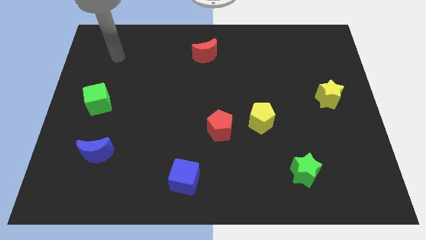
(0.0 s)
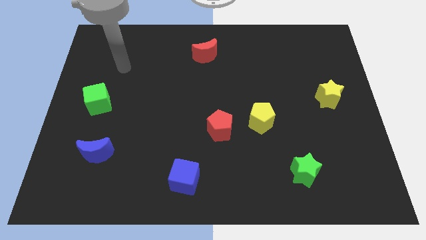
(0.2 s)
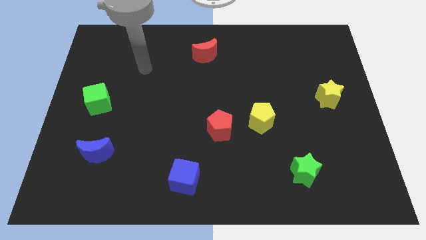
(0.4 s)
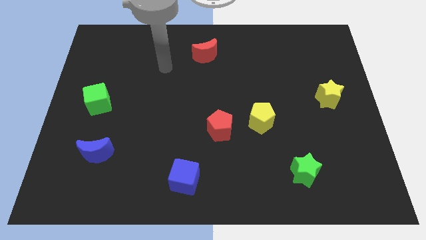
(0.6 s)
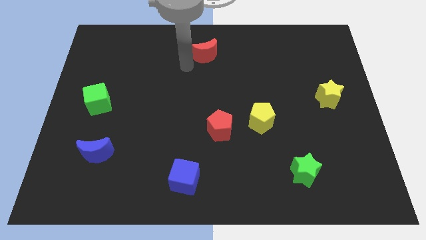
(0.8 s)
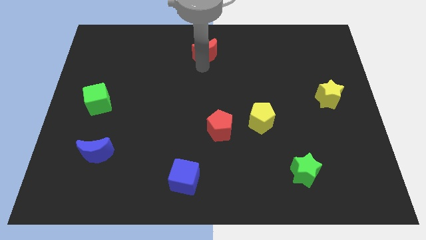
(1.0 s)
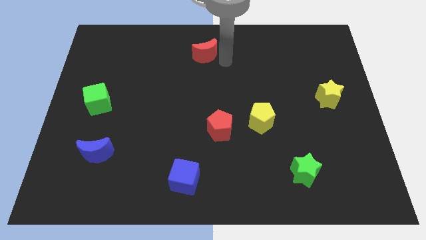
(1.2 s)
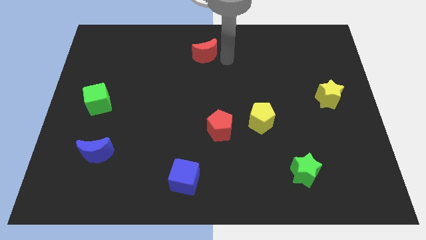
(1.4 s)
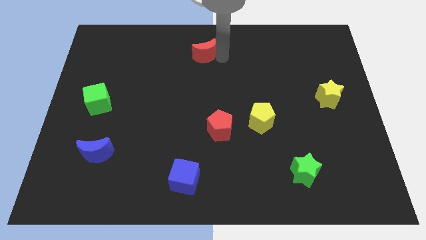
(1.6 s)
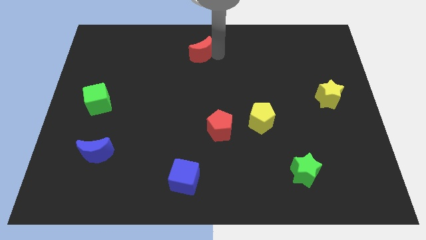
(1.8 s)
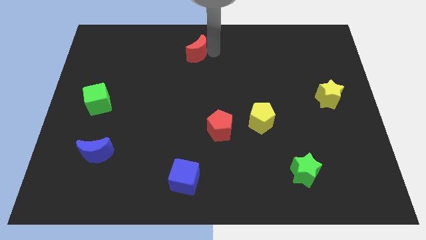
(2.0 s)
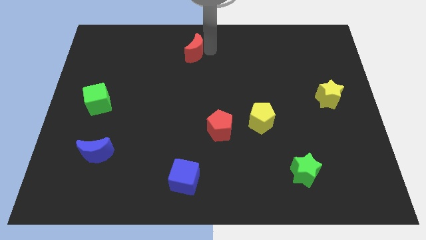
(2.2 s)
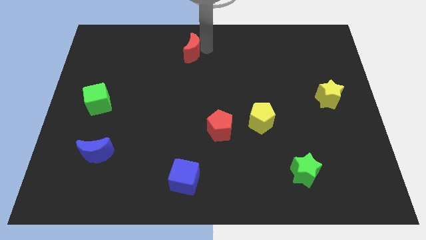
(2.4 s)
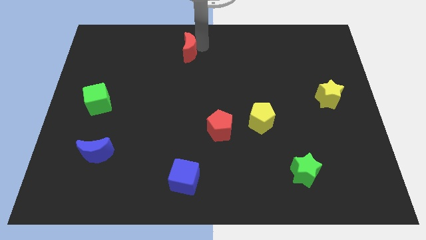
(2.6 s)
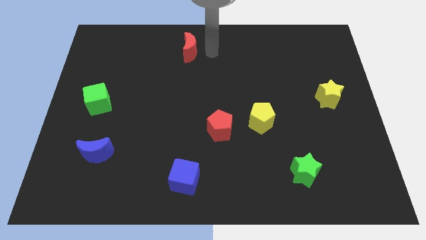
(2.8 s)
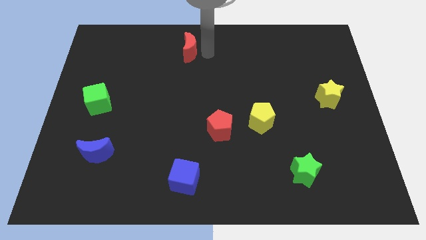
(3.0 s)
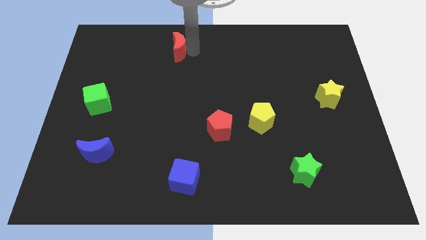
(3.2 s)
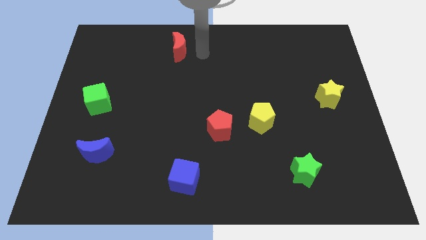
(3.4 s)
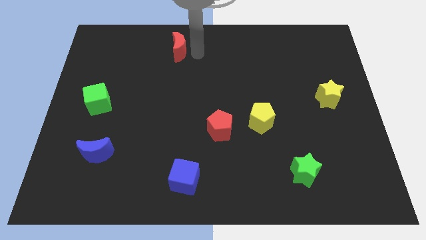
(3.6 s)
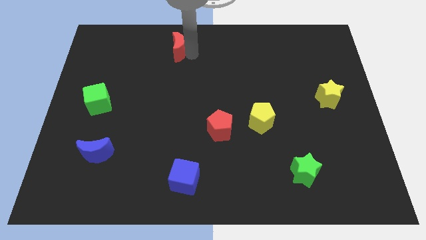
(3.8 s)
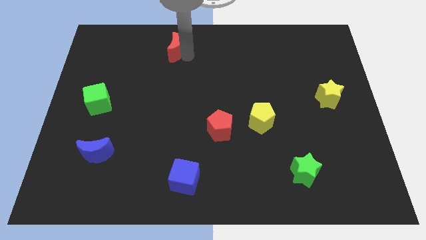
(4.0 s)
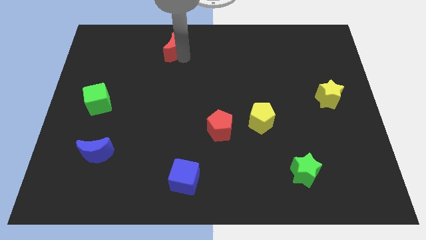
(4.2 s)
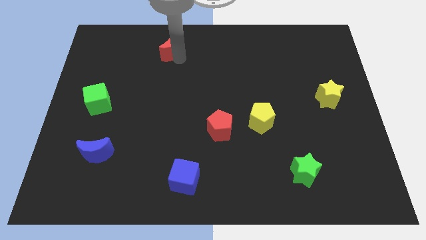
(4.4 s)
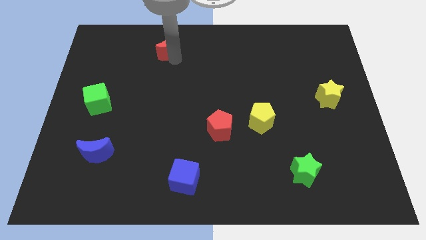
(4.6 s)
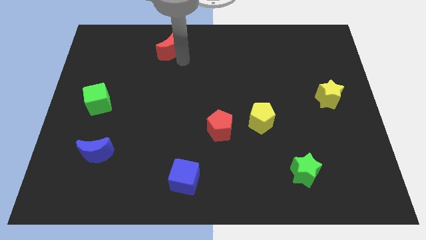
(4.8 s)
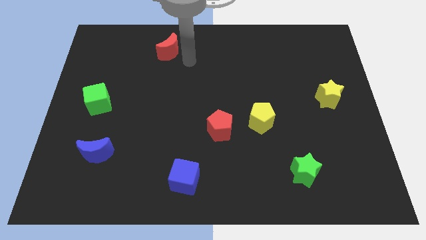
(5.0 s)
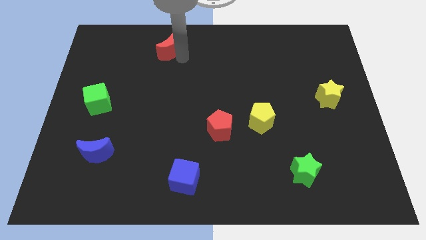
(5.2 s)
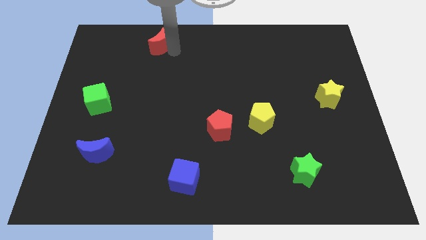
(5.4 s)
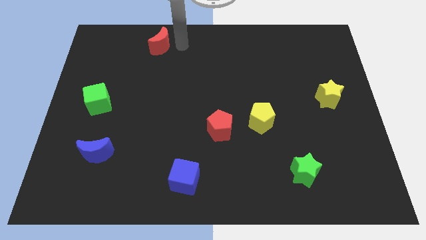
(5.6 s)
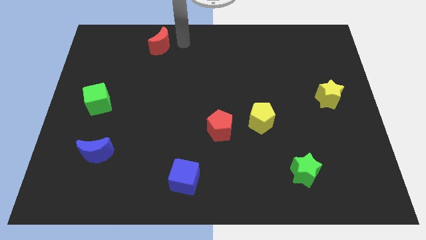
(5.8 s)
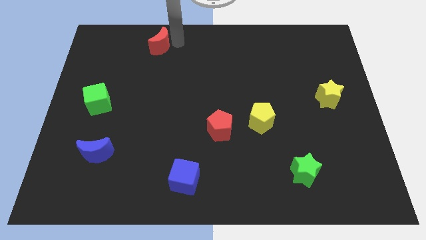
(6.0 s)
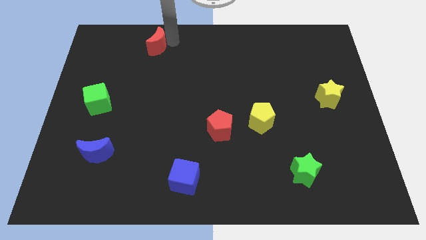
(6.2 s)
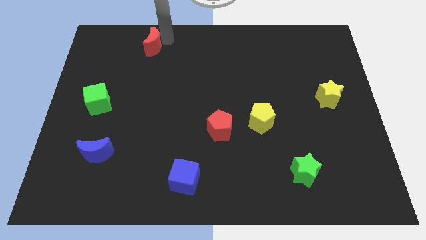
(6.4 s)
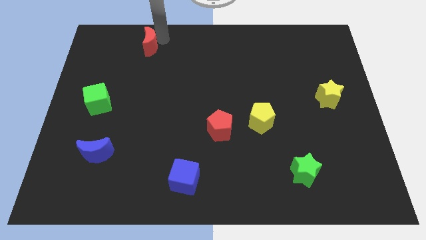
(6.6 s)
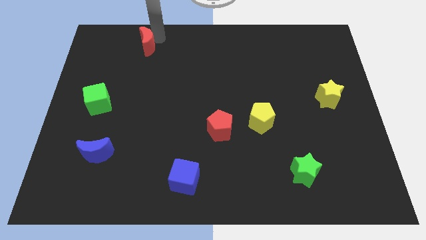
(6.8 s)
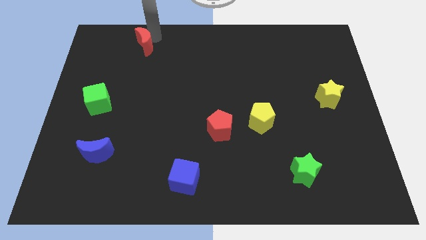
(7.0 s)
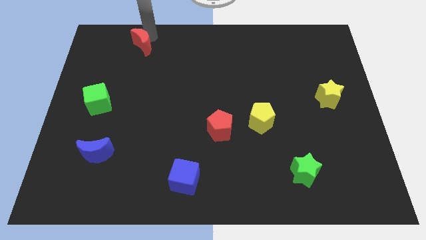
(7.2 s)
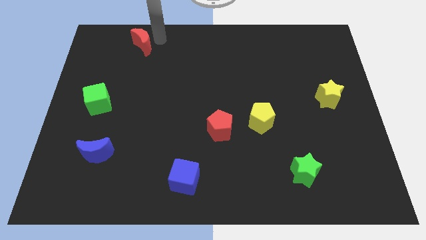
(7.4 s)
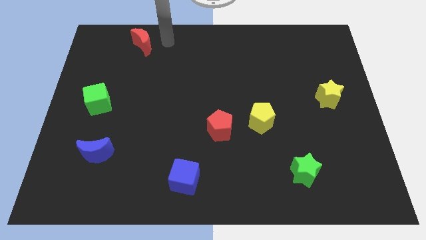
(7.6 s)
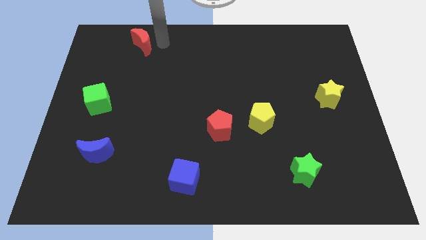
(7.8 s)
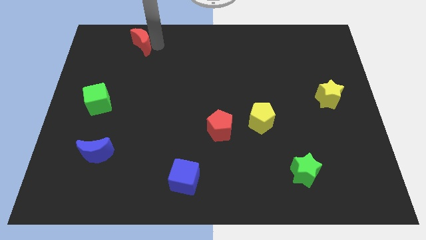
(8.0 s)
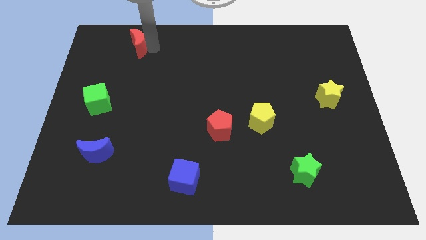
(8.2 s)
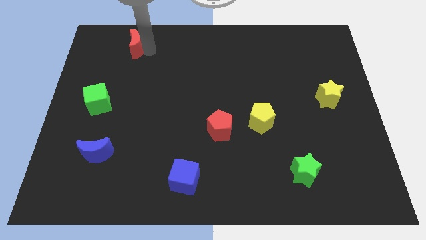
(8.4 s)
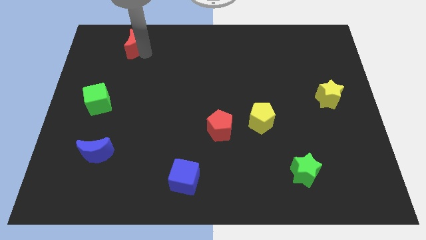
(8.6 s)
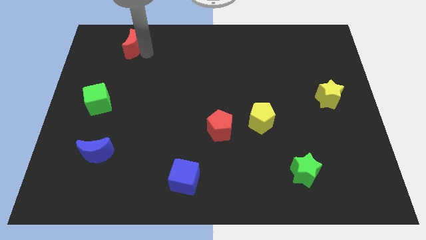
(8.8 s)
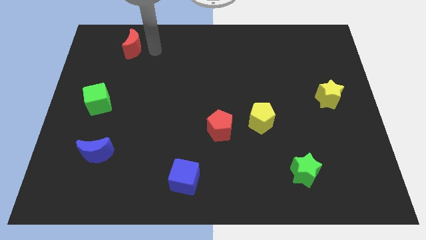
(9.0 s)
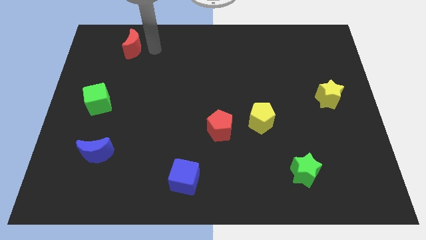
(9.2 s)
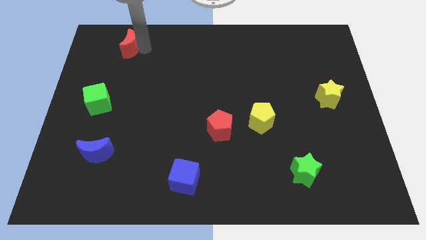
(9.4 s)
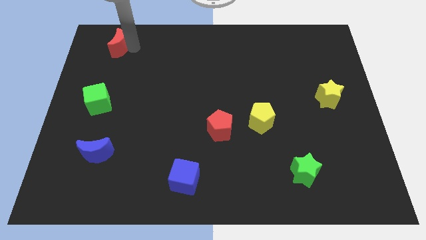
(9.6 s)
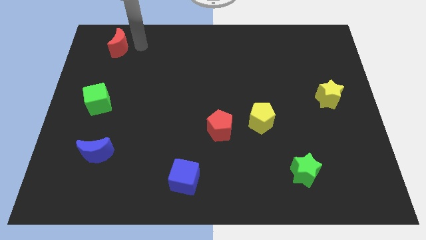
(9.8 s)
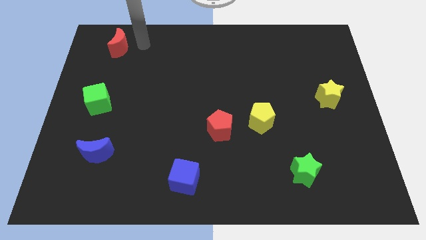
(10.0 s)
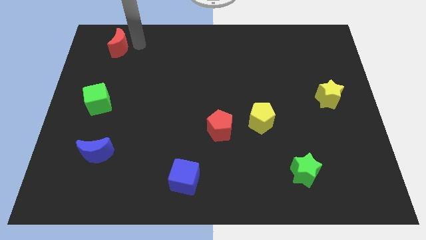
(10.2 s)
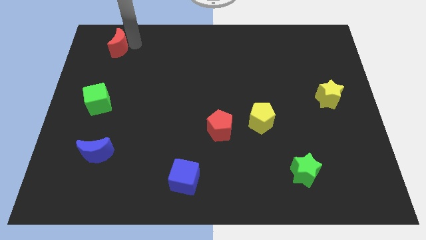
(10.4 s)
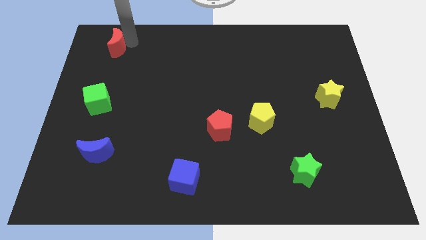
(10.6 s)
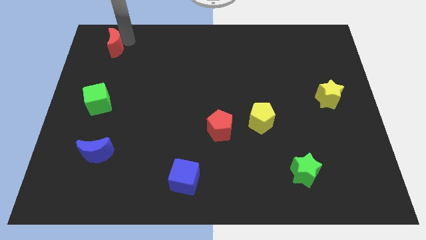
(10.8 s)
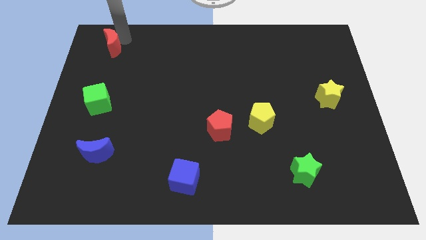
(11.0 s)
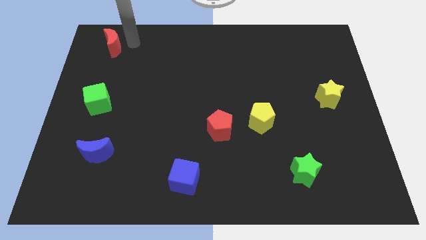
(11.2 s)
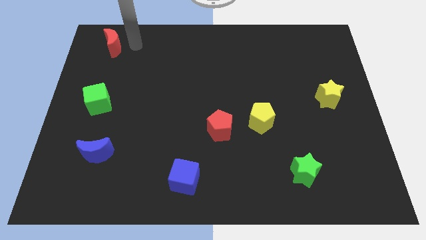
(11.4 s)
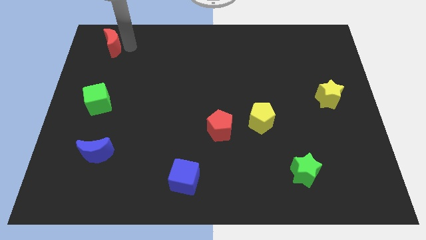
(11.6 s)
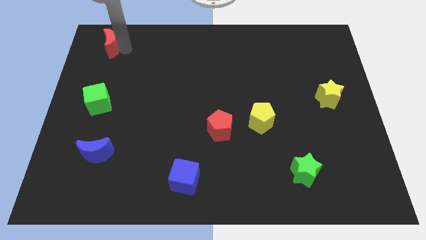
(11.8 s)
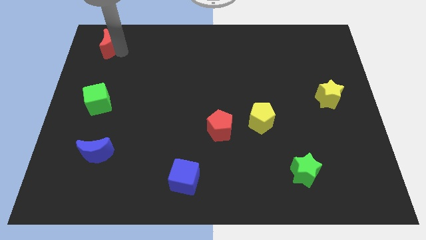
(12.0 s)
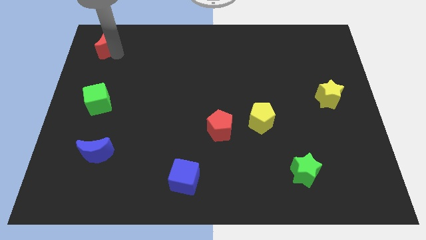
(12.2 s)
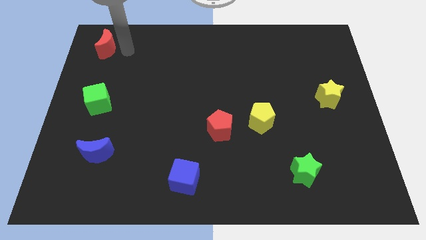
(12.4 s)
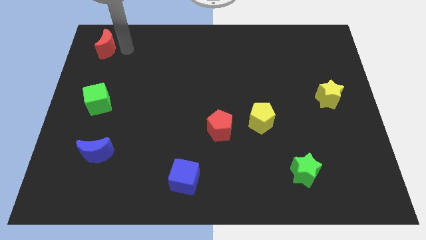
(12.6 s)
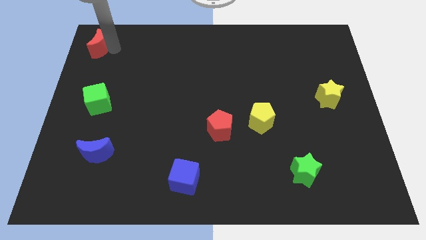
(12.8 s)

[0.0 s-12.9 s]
push the red moon to the top left
